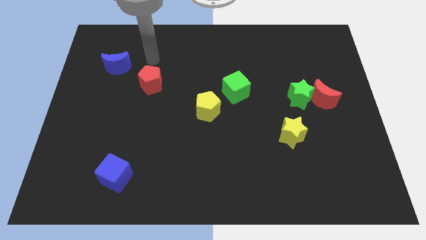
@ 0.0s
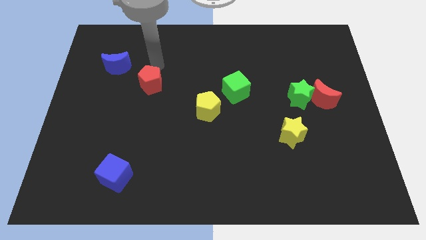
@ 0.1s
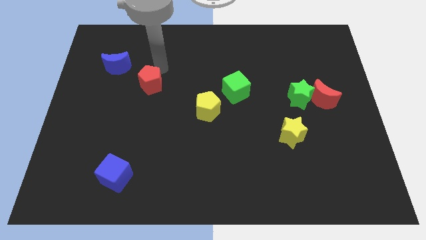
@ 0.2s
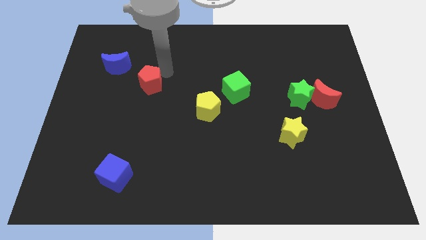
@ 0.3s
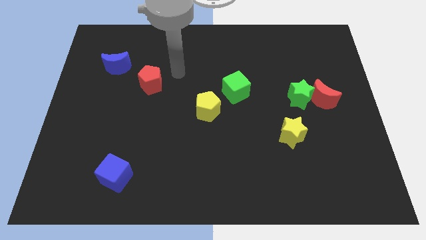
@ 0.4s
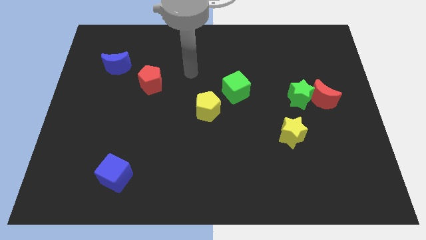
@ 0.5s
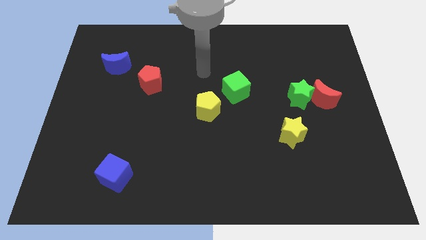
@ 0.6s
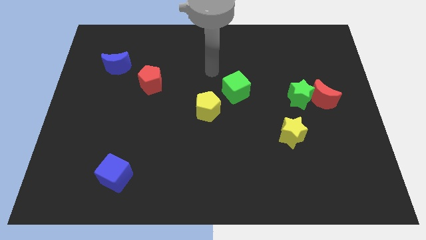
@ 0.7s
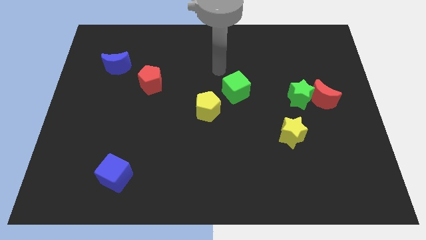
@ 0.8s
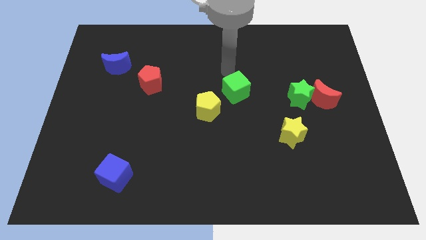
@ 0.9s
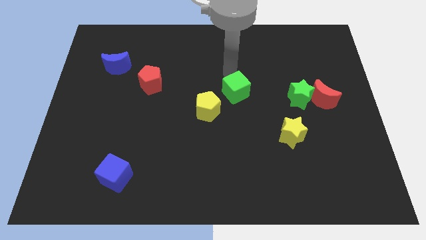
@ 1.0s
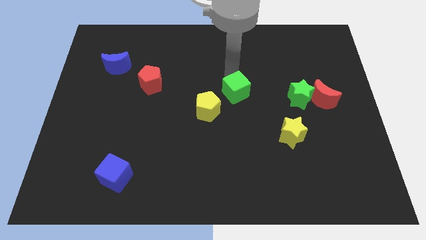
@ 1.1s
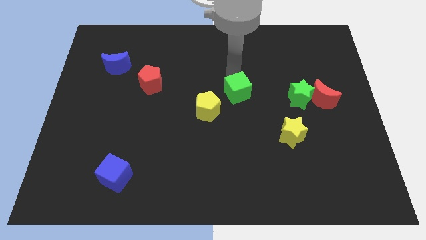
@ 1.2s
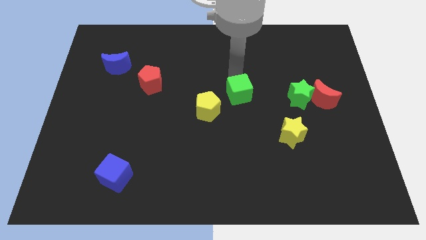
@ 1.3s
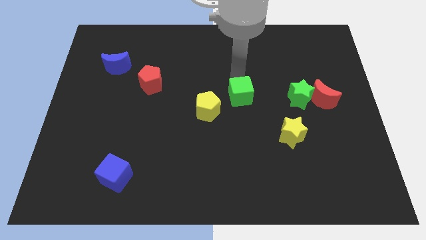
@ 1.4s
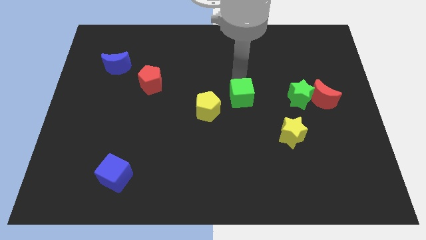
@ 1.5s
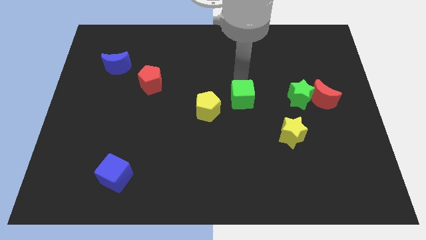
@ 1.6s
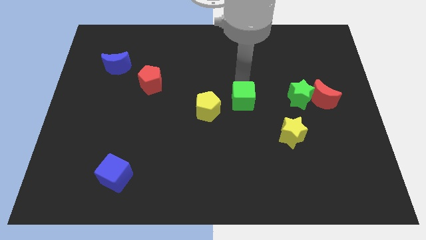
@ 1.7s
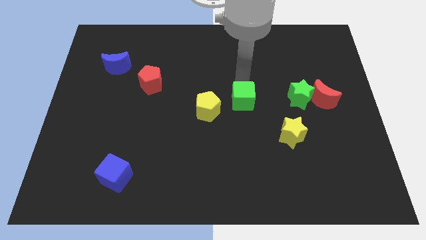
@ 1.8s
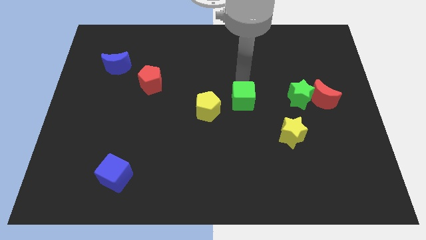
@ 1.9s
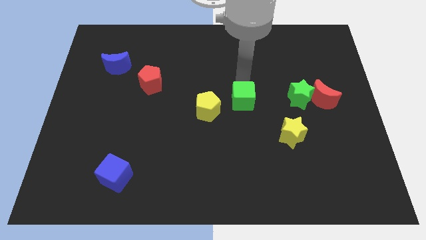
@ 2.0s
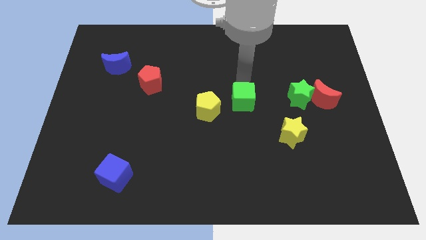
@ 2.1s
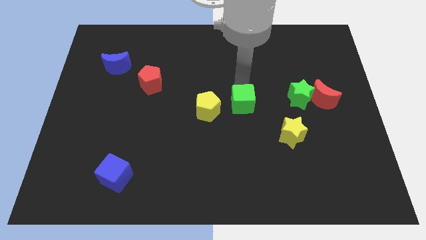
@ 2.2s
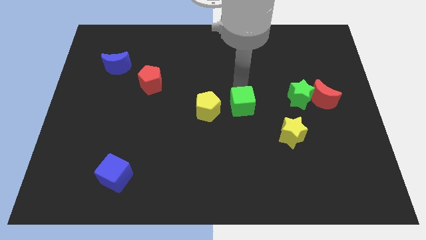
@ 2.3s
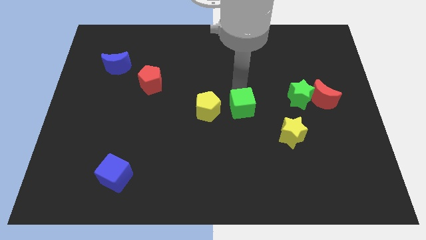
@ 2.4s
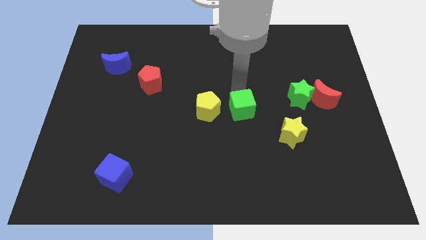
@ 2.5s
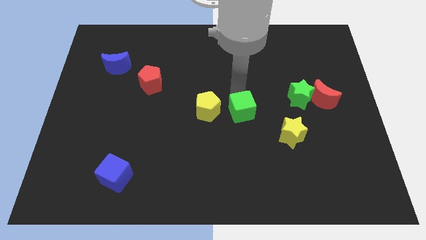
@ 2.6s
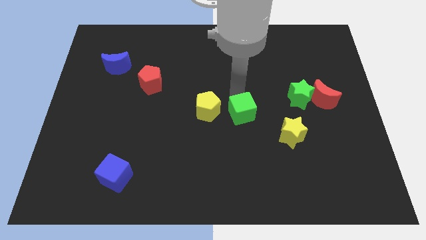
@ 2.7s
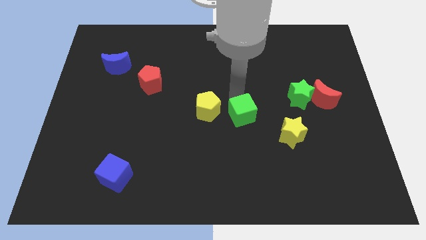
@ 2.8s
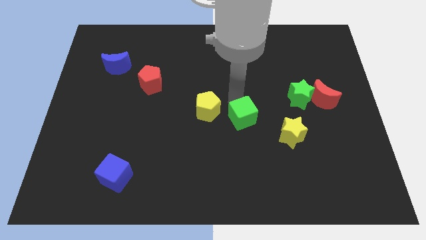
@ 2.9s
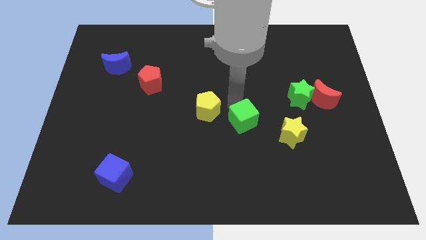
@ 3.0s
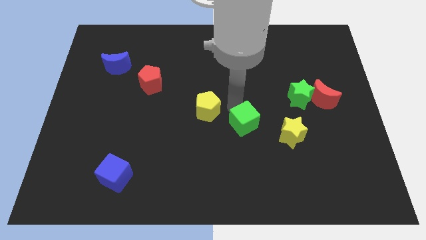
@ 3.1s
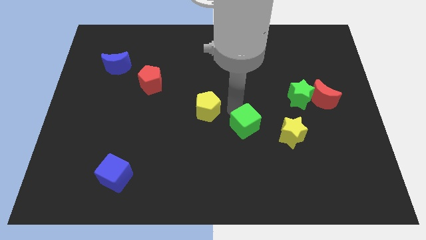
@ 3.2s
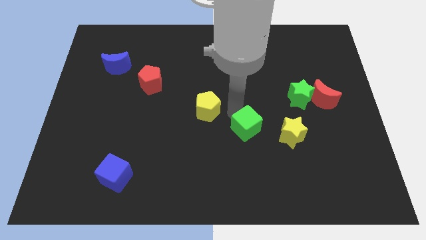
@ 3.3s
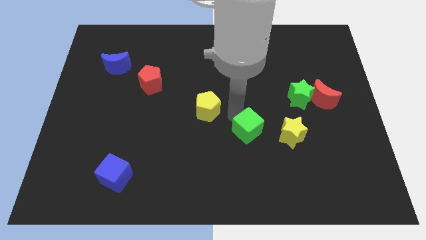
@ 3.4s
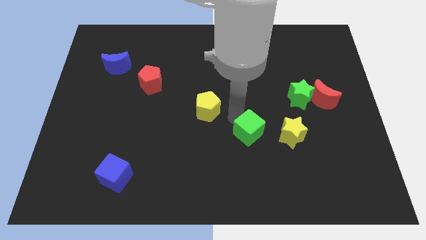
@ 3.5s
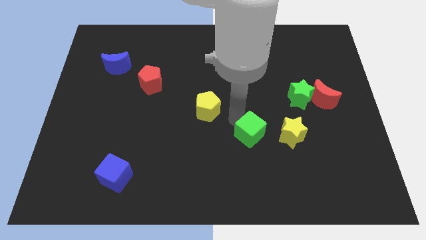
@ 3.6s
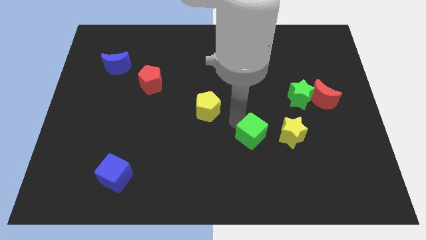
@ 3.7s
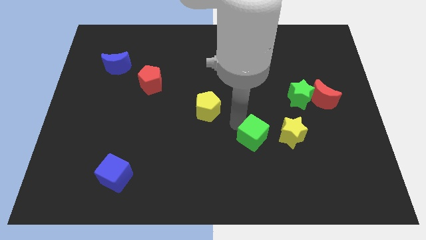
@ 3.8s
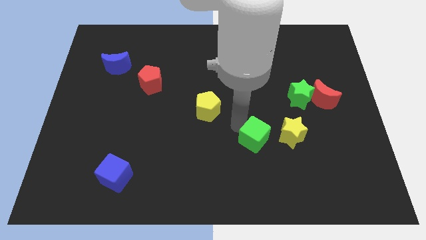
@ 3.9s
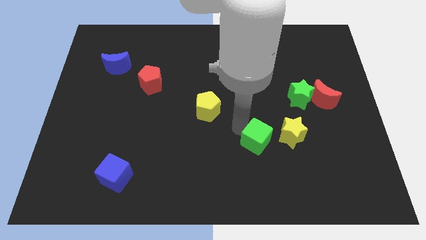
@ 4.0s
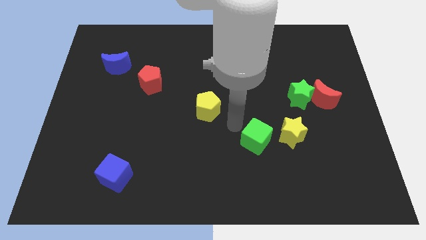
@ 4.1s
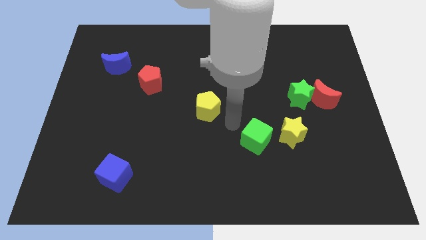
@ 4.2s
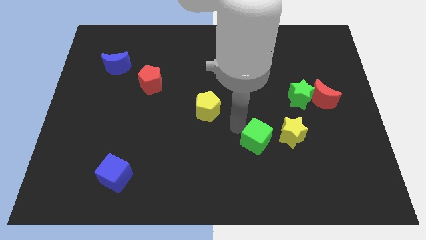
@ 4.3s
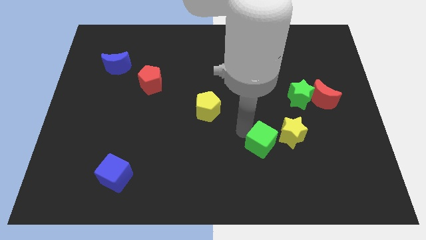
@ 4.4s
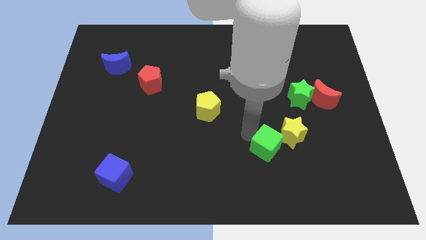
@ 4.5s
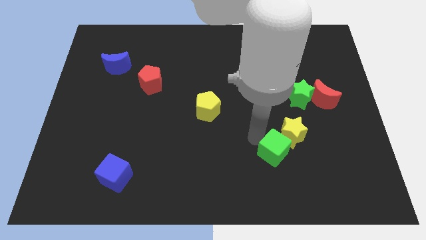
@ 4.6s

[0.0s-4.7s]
push the green cube below the yellow star

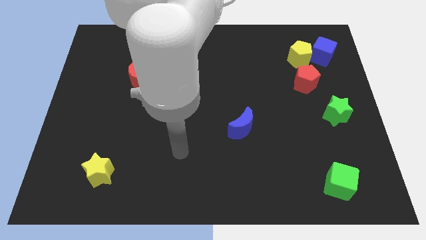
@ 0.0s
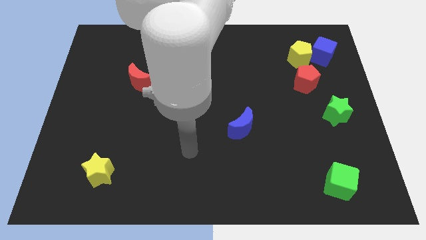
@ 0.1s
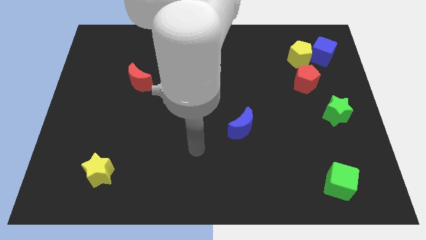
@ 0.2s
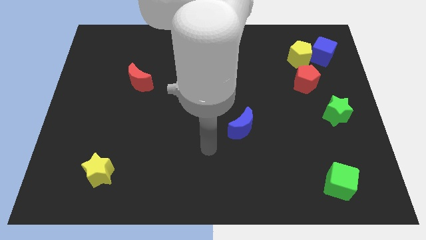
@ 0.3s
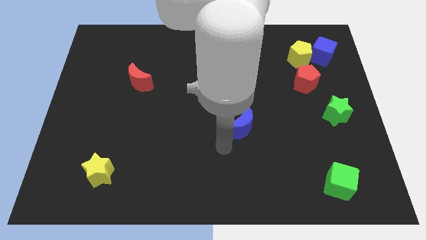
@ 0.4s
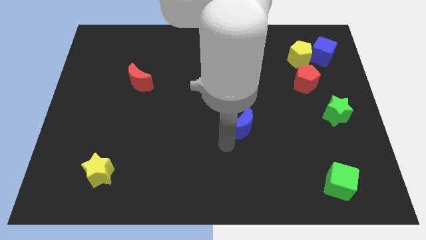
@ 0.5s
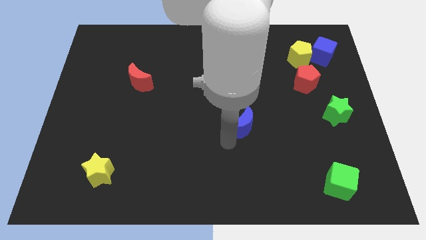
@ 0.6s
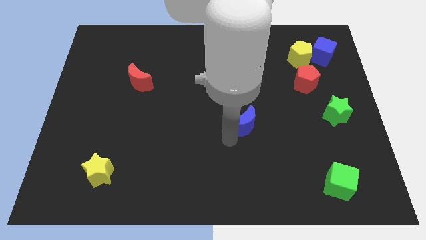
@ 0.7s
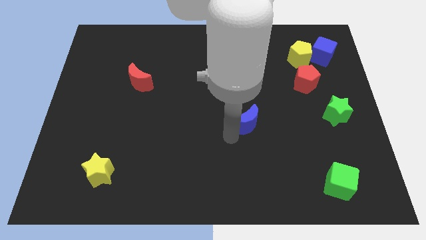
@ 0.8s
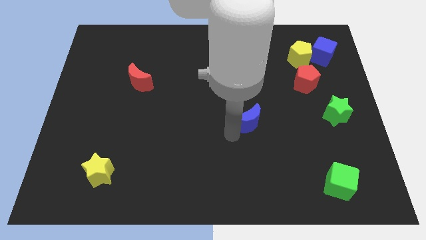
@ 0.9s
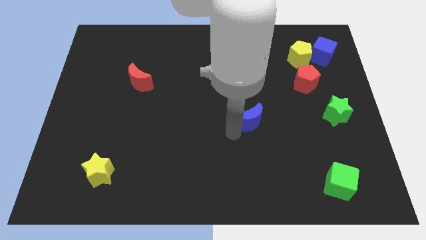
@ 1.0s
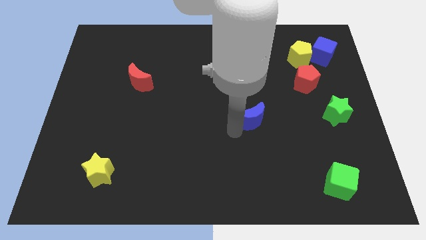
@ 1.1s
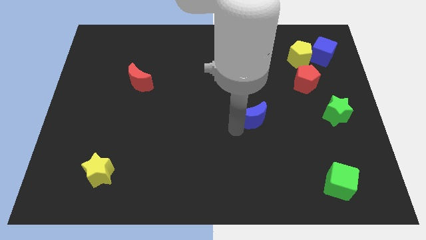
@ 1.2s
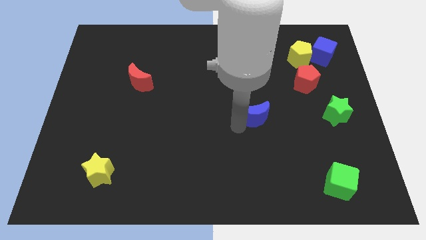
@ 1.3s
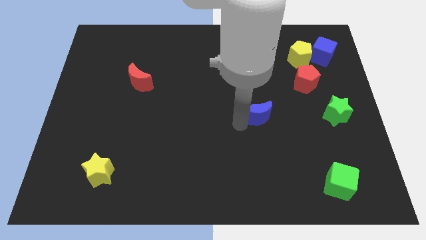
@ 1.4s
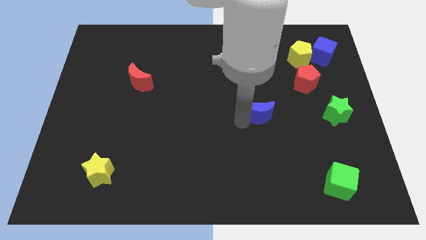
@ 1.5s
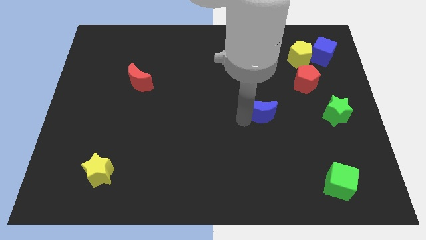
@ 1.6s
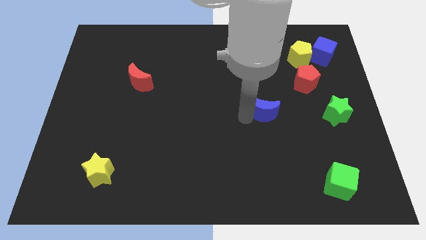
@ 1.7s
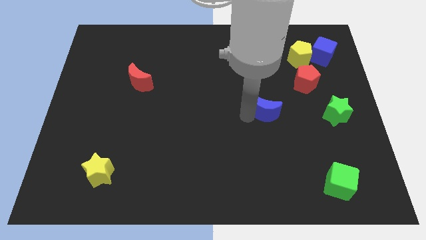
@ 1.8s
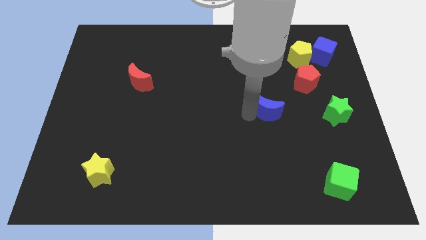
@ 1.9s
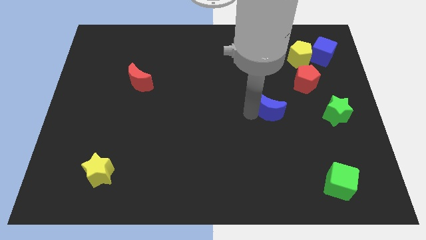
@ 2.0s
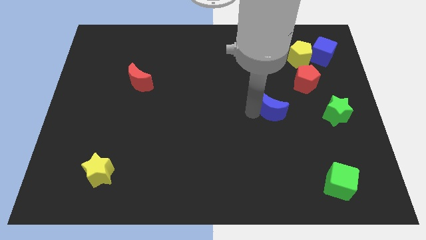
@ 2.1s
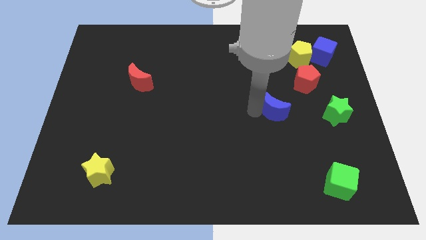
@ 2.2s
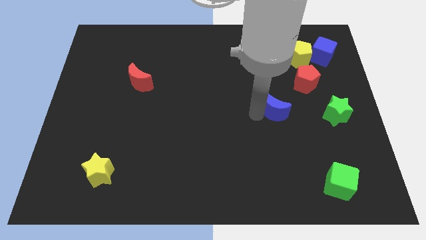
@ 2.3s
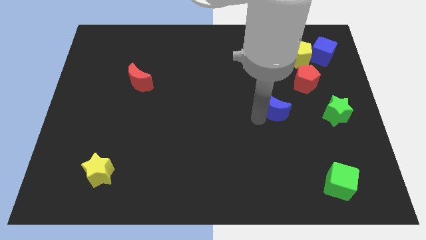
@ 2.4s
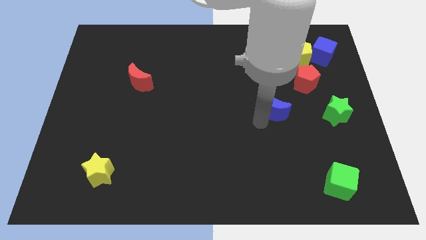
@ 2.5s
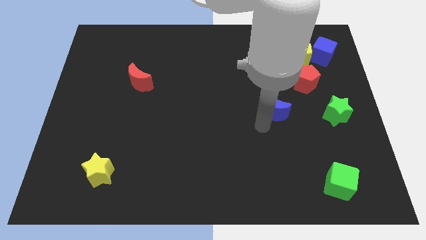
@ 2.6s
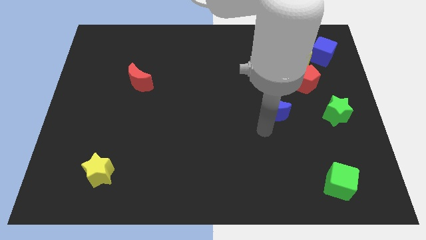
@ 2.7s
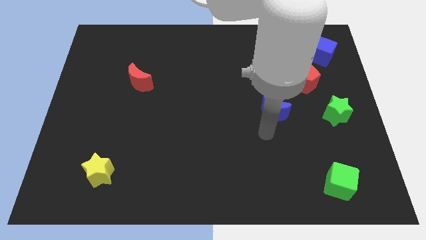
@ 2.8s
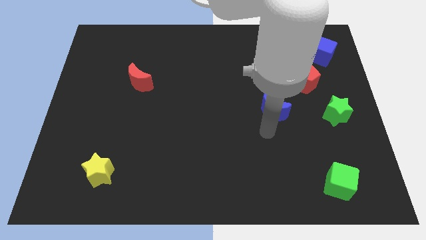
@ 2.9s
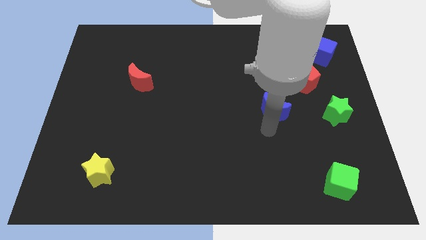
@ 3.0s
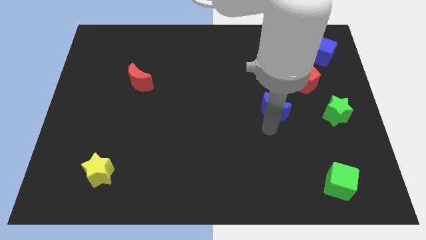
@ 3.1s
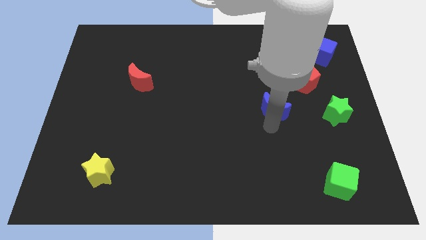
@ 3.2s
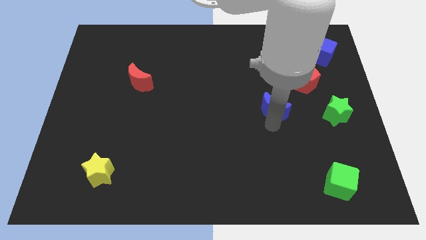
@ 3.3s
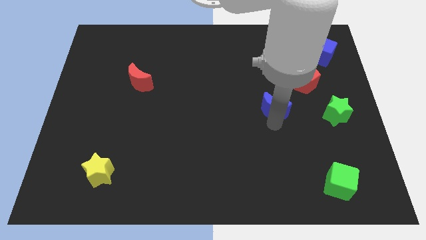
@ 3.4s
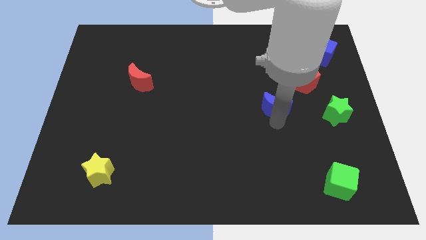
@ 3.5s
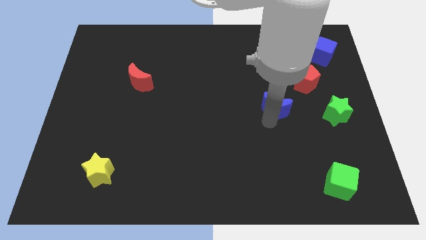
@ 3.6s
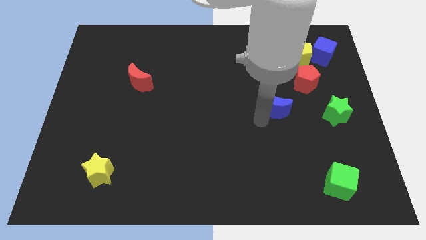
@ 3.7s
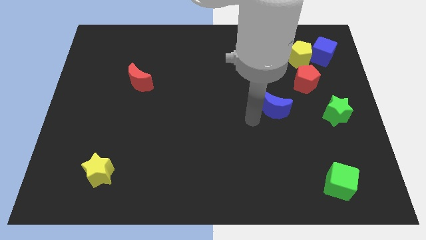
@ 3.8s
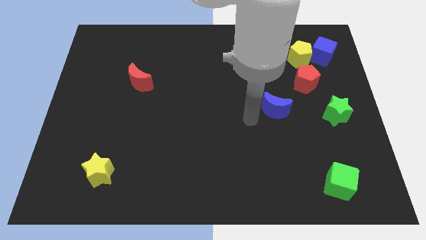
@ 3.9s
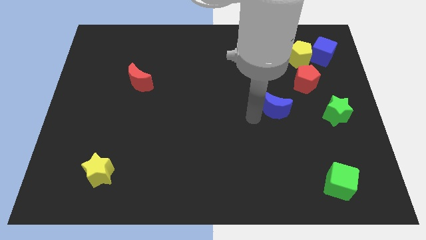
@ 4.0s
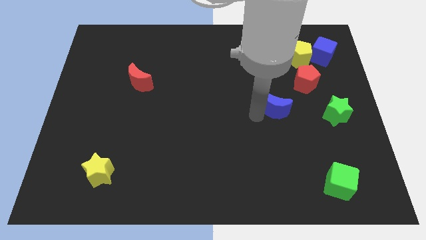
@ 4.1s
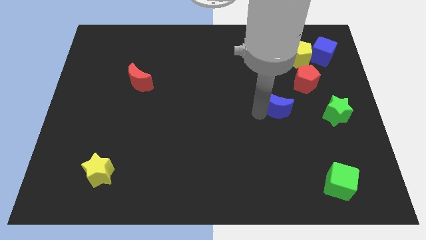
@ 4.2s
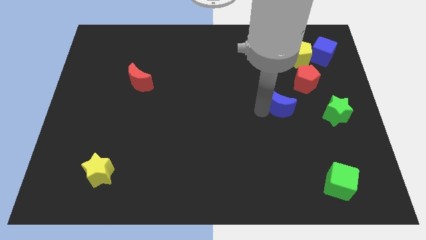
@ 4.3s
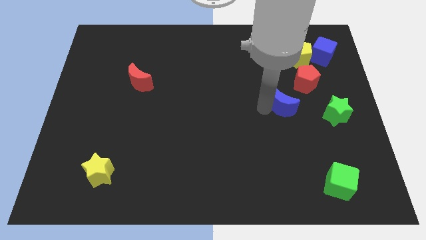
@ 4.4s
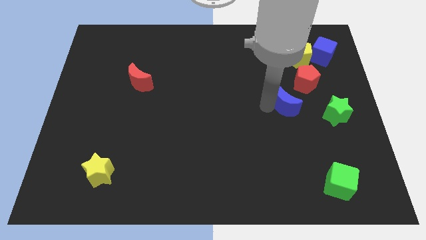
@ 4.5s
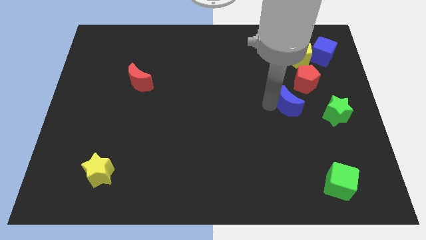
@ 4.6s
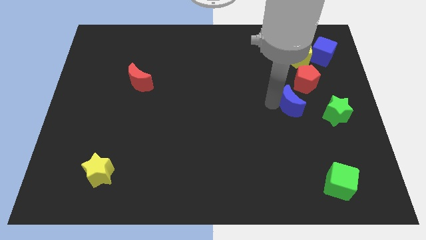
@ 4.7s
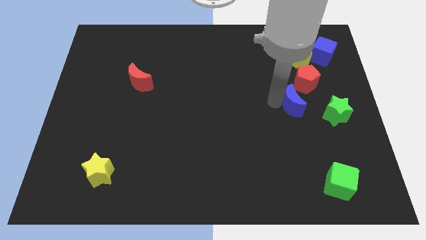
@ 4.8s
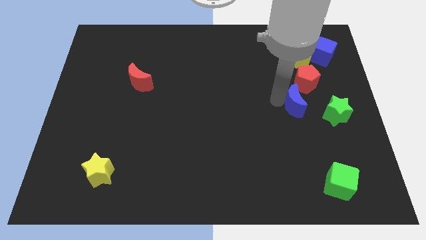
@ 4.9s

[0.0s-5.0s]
put the blue moon to the top left of the green star
